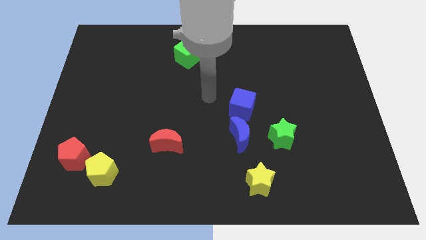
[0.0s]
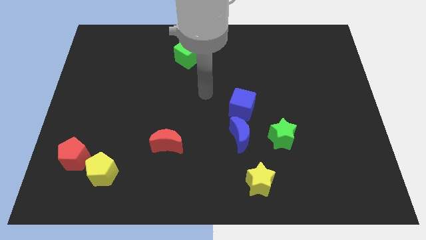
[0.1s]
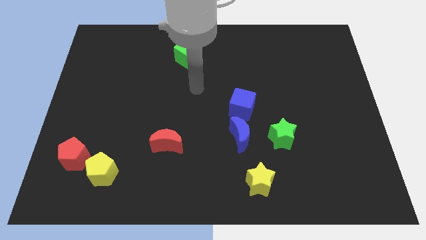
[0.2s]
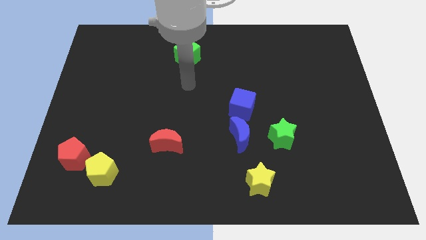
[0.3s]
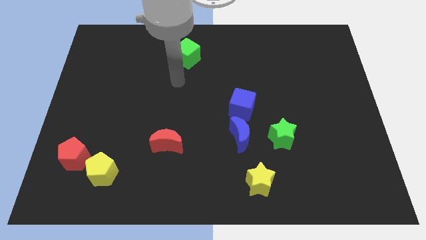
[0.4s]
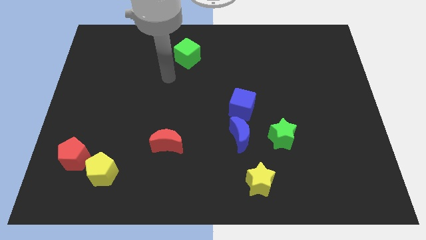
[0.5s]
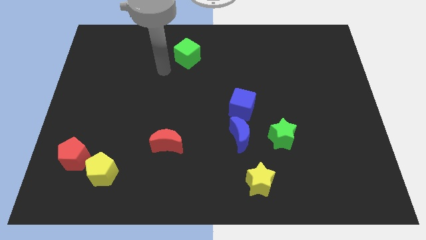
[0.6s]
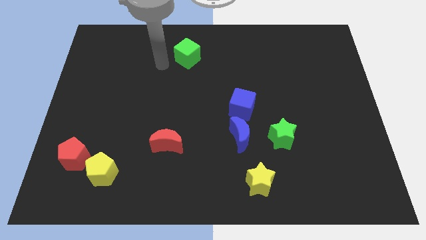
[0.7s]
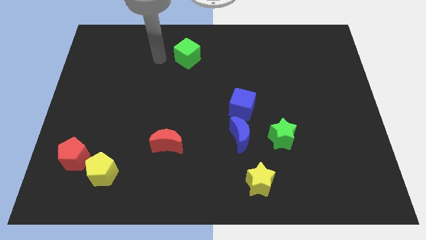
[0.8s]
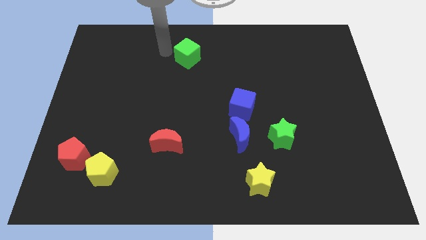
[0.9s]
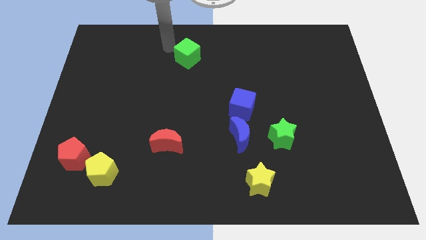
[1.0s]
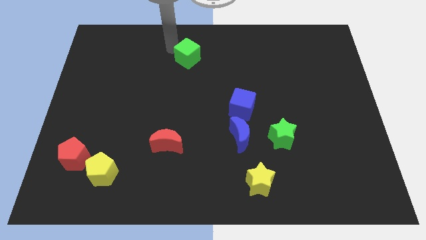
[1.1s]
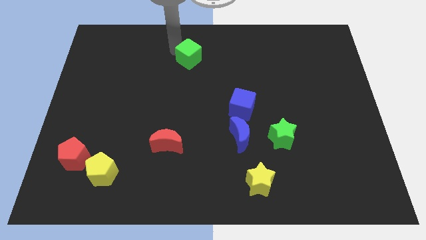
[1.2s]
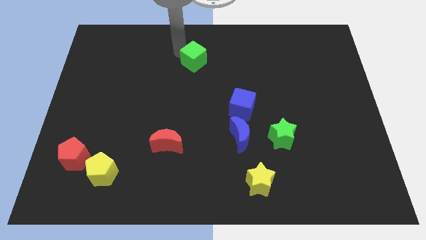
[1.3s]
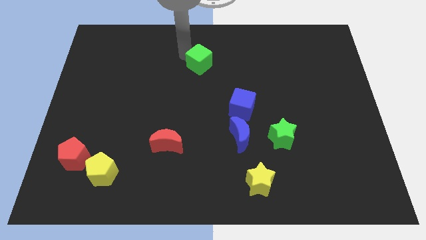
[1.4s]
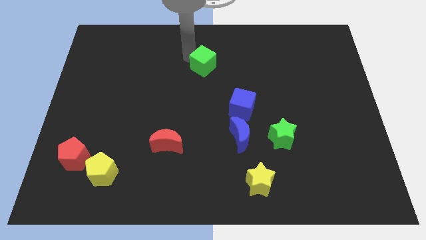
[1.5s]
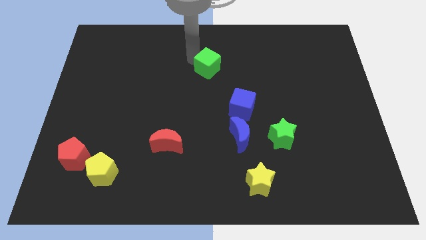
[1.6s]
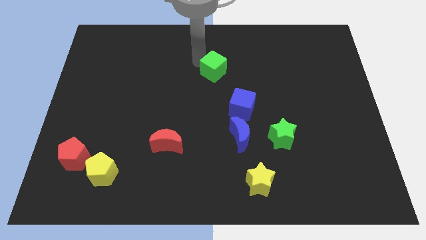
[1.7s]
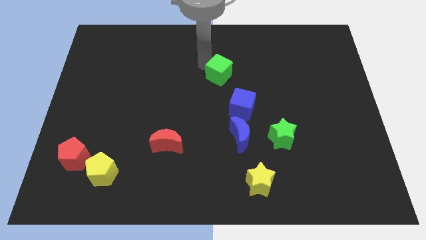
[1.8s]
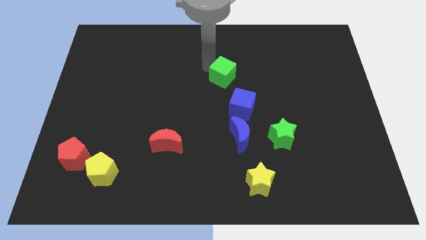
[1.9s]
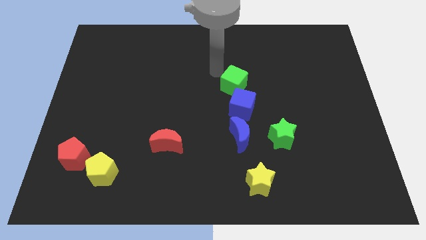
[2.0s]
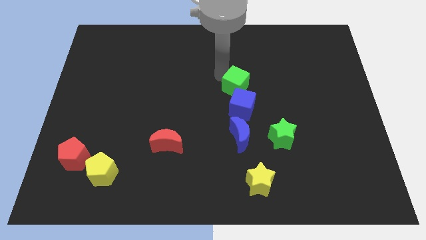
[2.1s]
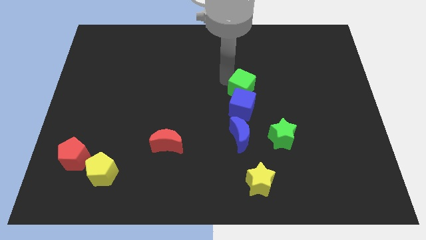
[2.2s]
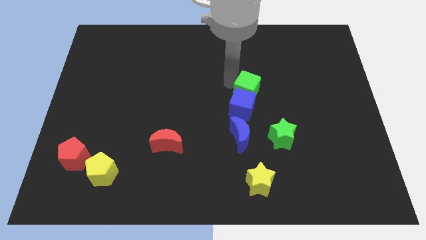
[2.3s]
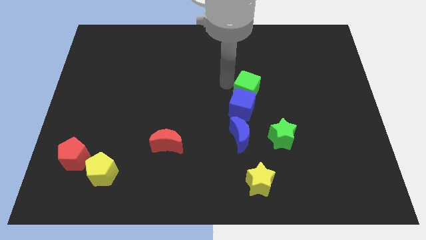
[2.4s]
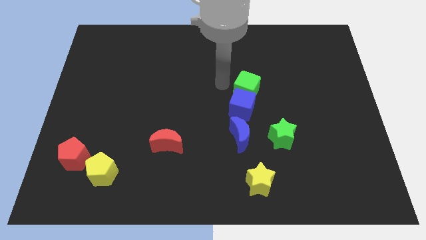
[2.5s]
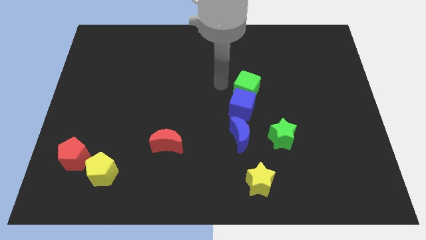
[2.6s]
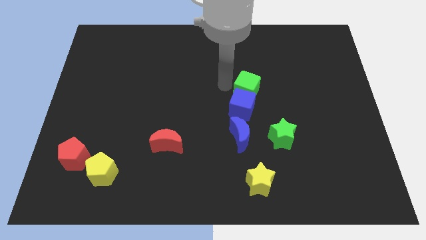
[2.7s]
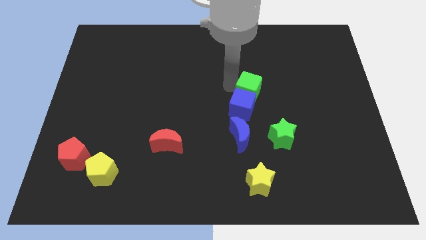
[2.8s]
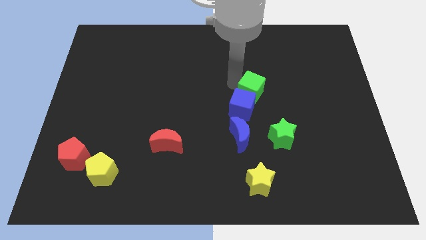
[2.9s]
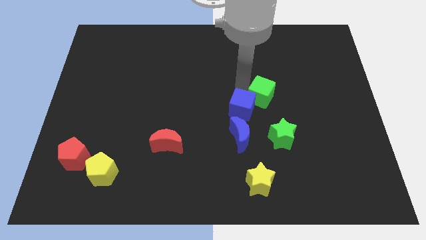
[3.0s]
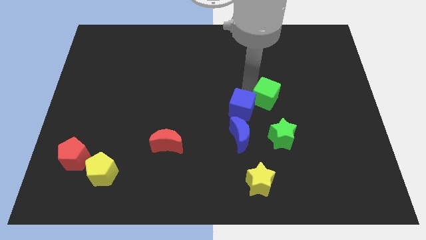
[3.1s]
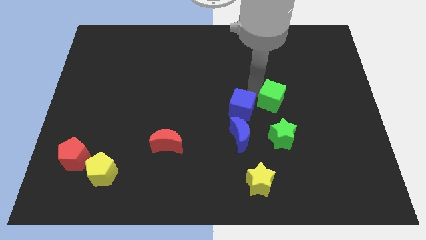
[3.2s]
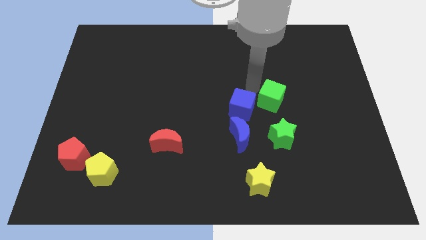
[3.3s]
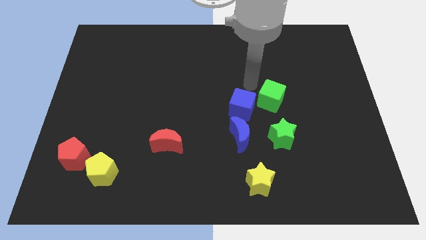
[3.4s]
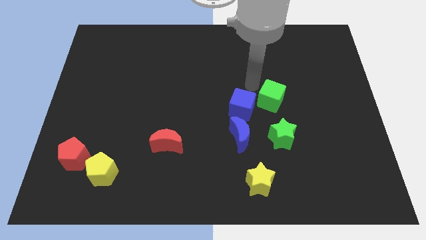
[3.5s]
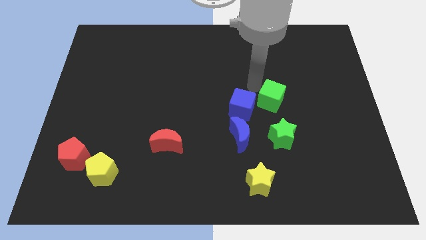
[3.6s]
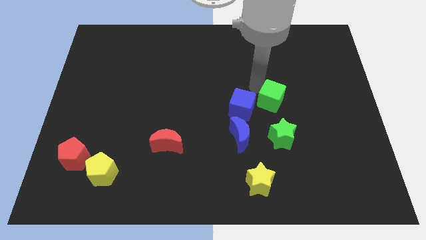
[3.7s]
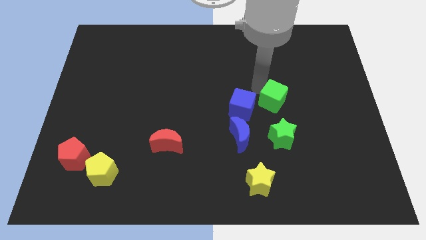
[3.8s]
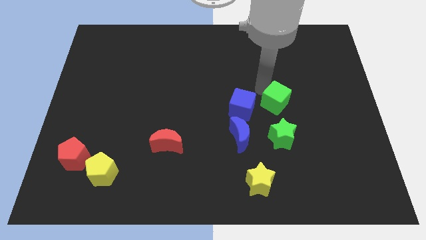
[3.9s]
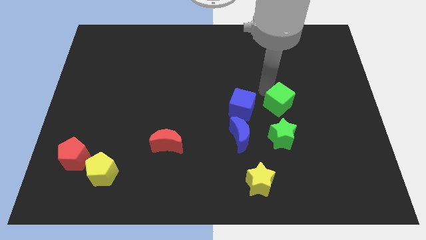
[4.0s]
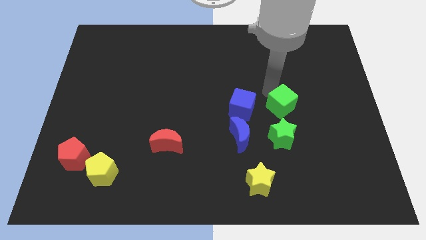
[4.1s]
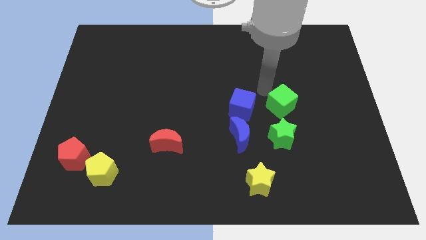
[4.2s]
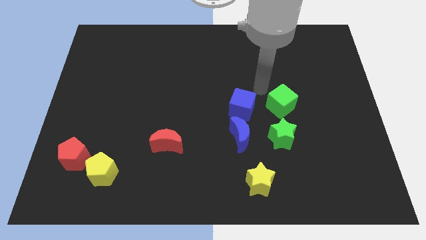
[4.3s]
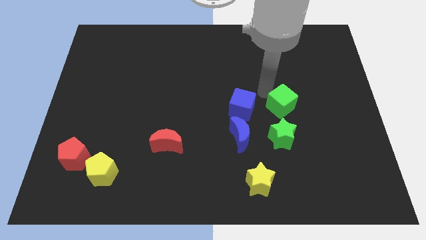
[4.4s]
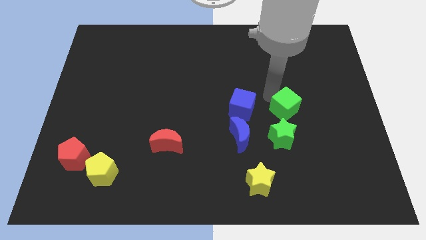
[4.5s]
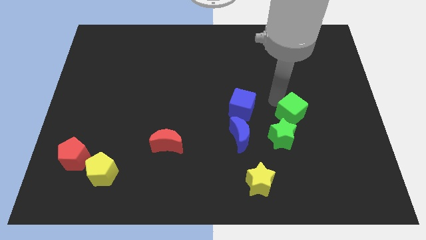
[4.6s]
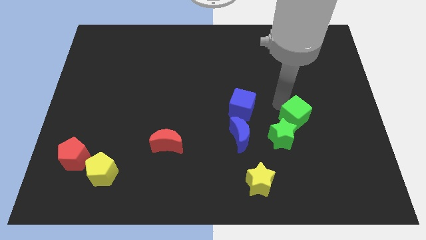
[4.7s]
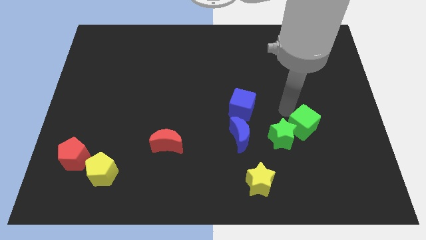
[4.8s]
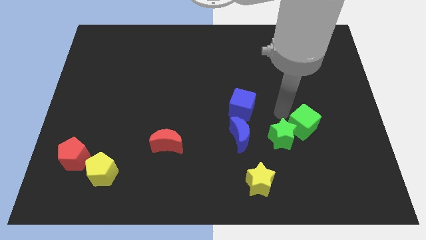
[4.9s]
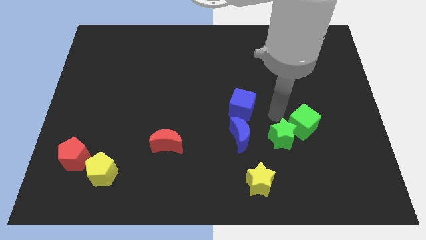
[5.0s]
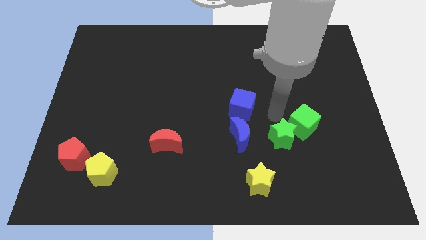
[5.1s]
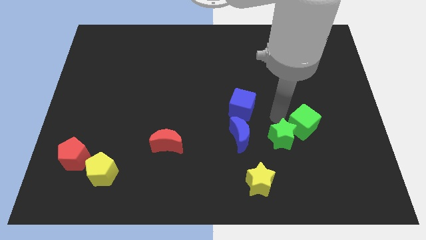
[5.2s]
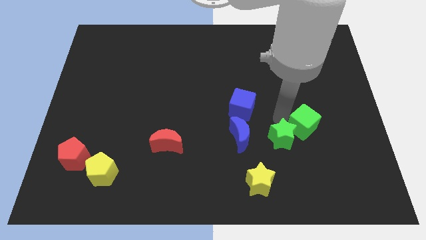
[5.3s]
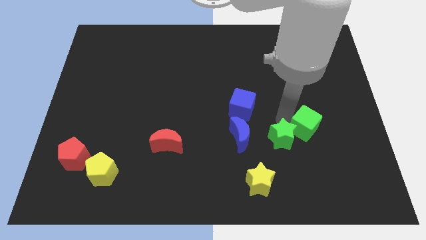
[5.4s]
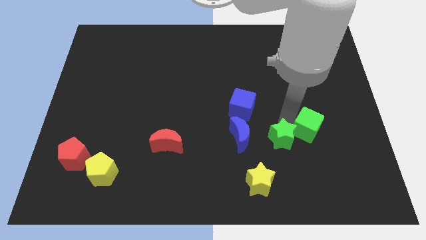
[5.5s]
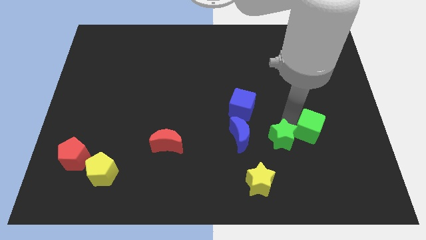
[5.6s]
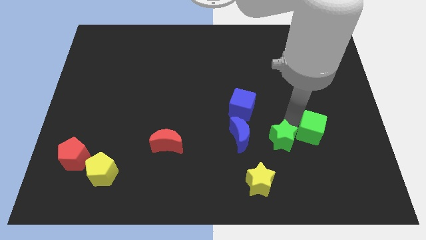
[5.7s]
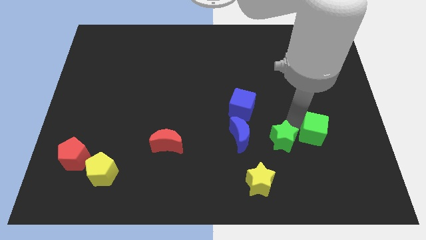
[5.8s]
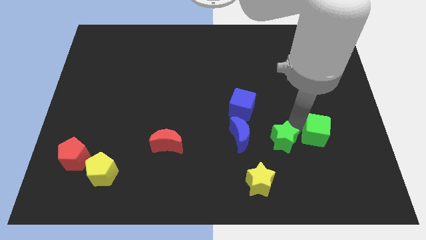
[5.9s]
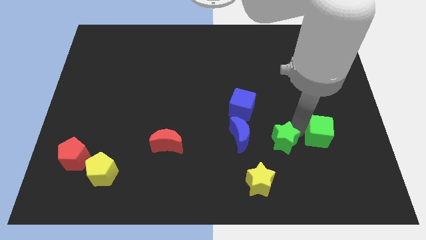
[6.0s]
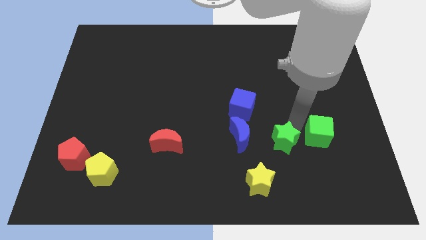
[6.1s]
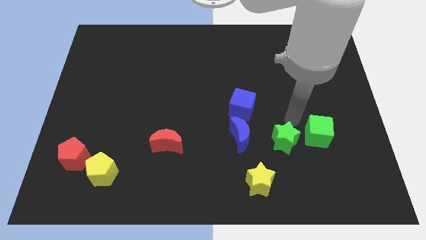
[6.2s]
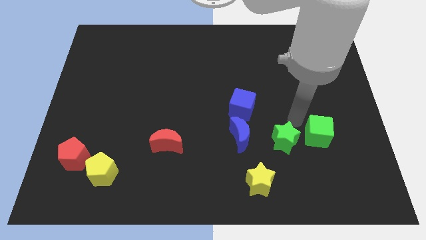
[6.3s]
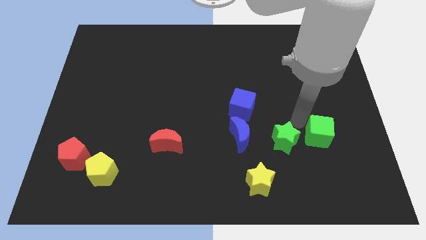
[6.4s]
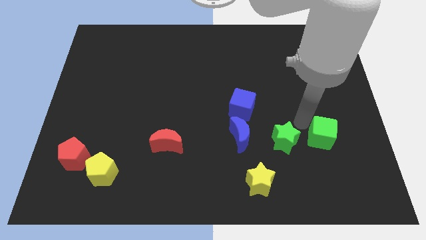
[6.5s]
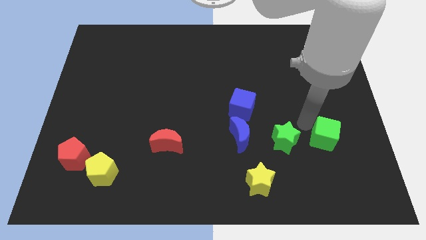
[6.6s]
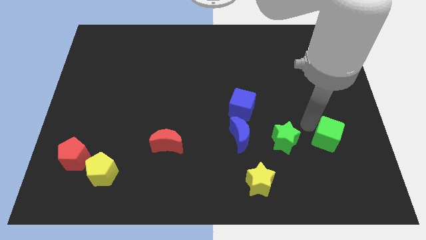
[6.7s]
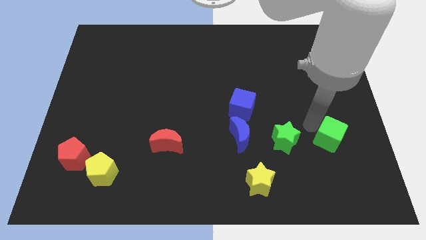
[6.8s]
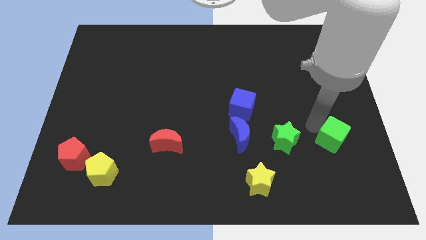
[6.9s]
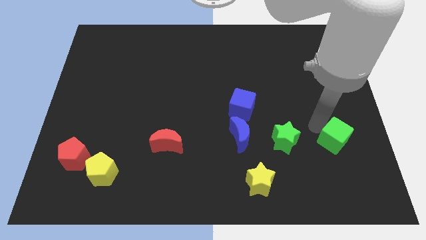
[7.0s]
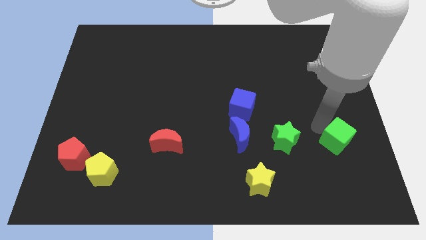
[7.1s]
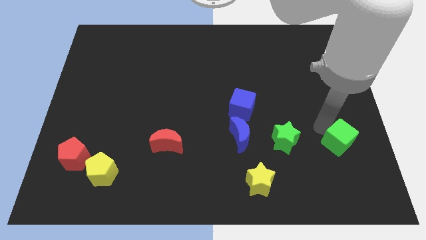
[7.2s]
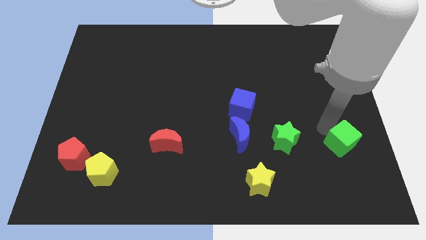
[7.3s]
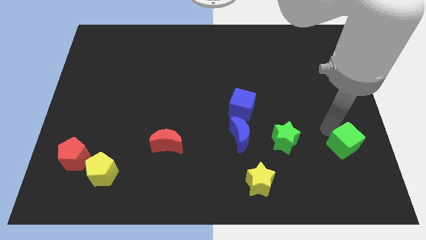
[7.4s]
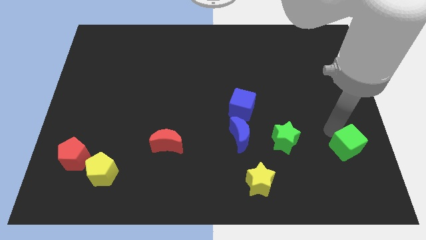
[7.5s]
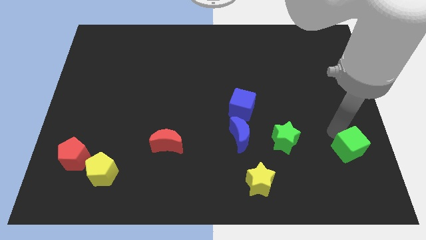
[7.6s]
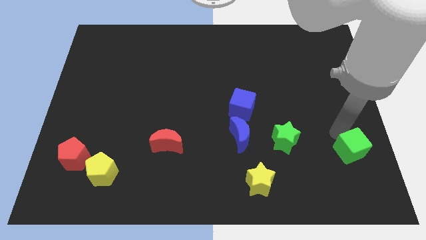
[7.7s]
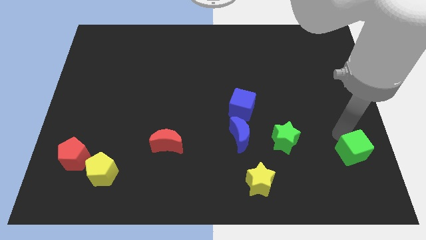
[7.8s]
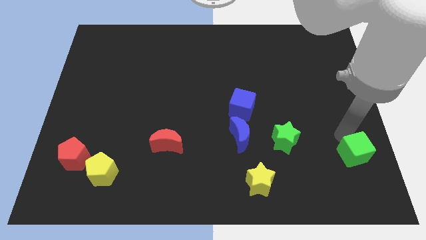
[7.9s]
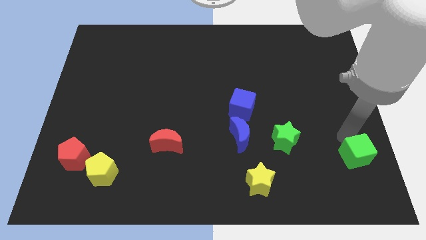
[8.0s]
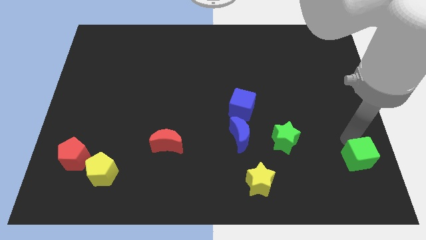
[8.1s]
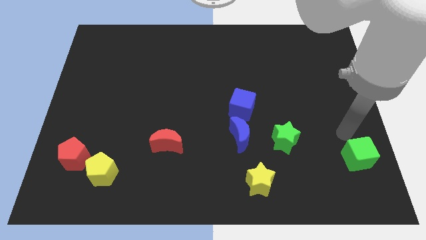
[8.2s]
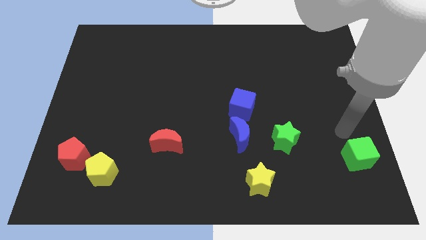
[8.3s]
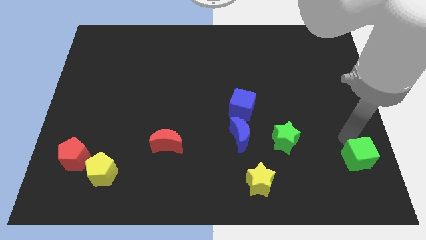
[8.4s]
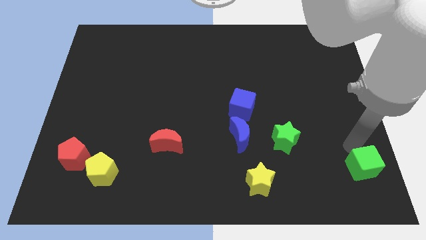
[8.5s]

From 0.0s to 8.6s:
push the green cube to the lower right corner
